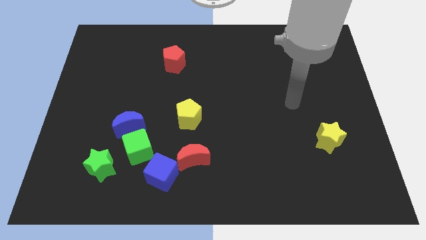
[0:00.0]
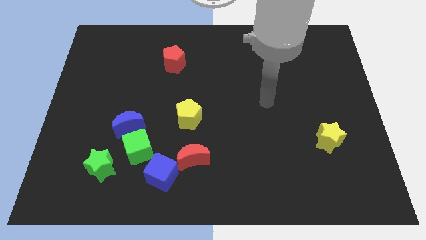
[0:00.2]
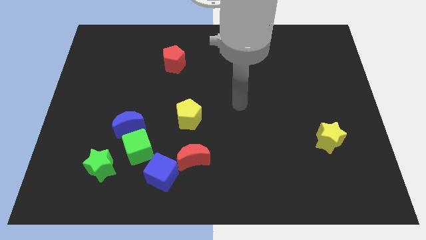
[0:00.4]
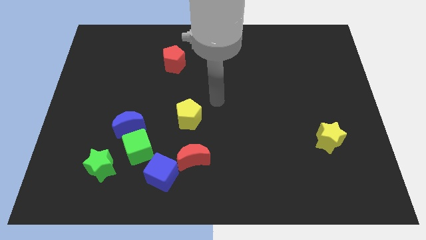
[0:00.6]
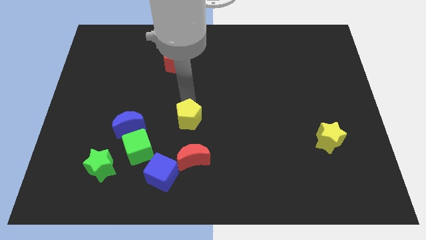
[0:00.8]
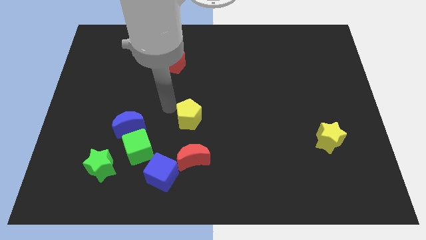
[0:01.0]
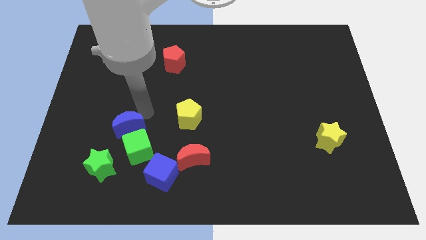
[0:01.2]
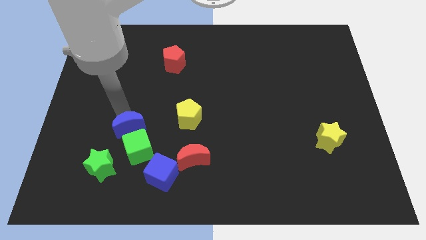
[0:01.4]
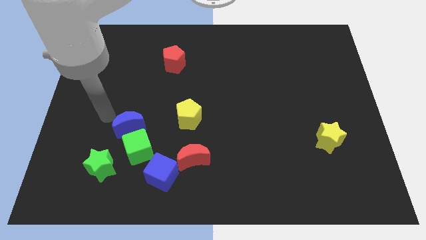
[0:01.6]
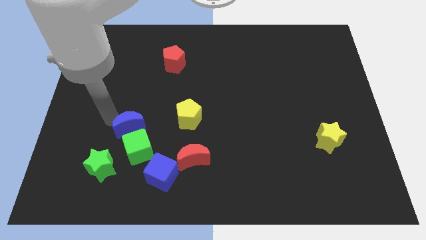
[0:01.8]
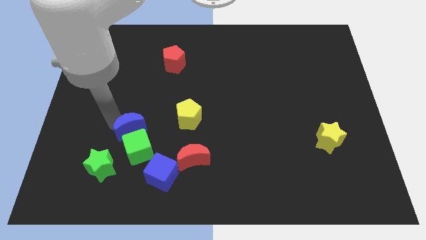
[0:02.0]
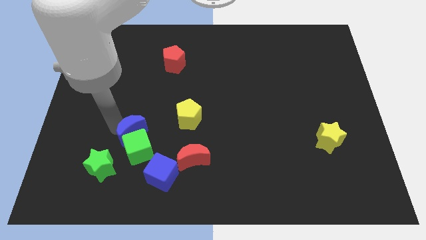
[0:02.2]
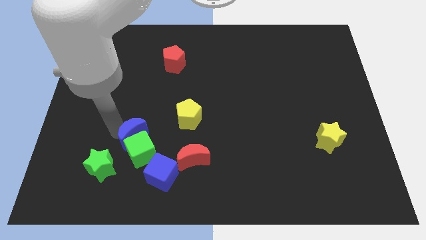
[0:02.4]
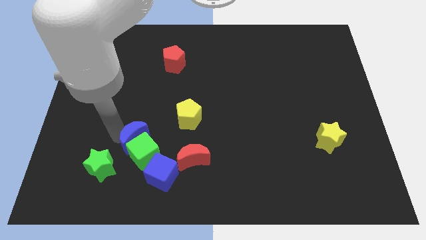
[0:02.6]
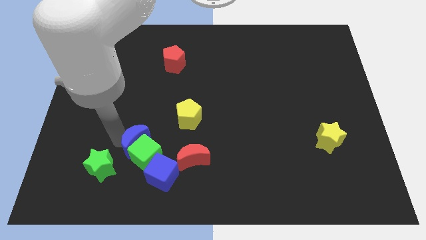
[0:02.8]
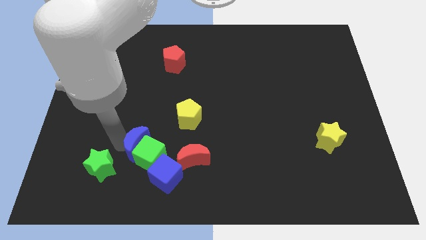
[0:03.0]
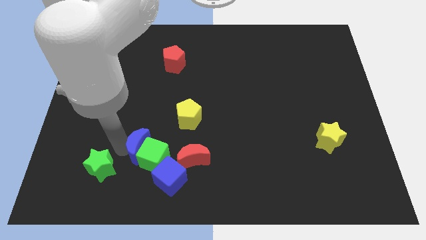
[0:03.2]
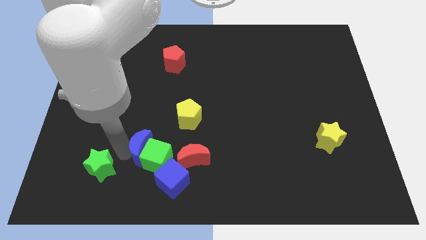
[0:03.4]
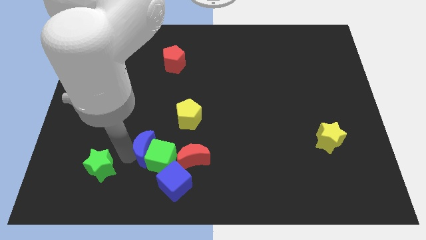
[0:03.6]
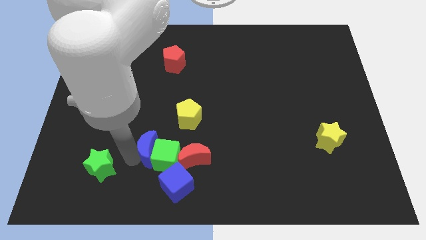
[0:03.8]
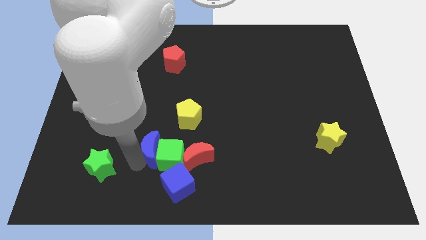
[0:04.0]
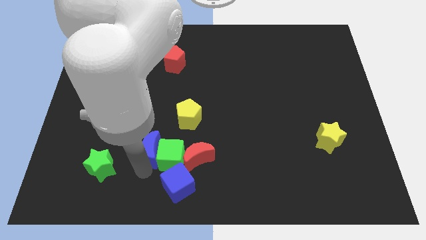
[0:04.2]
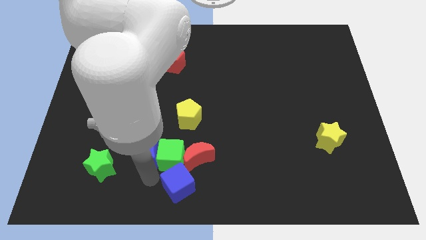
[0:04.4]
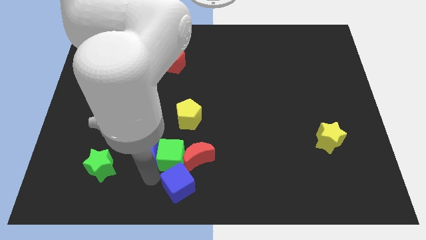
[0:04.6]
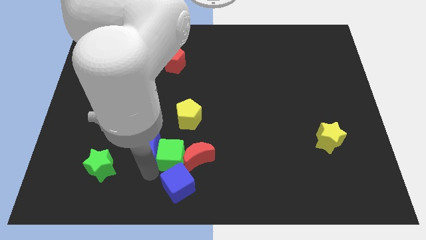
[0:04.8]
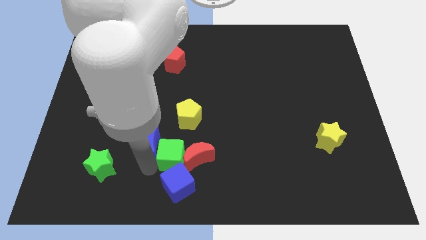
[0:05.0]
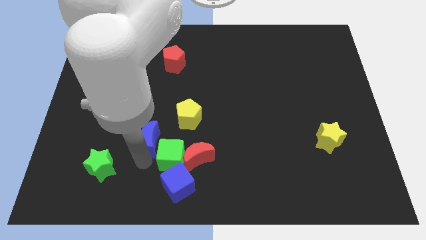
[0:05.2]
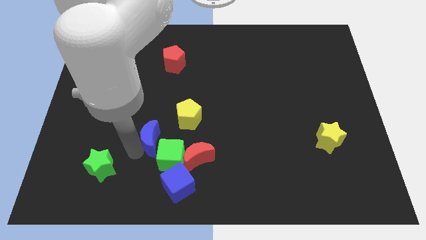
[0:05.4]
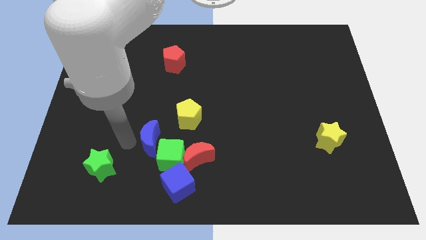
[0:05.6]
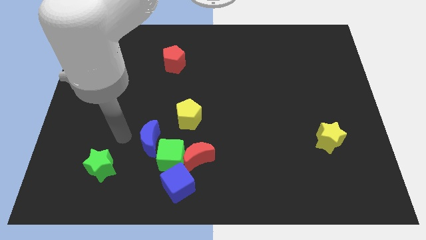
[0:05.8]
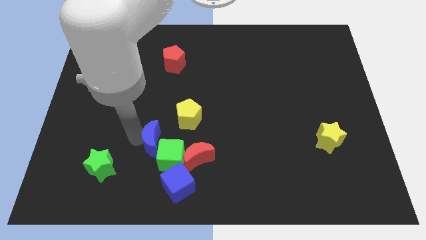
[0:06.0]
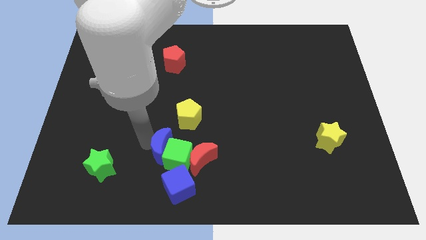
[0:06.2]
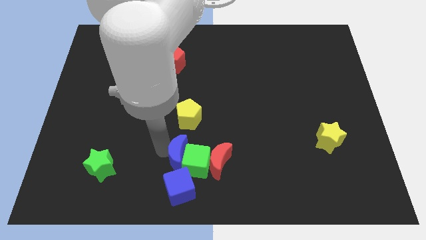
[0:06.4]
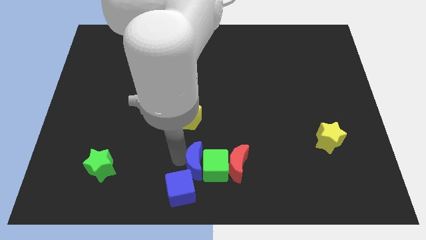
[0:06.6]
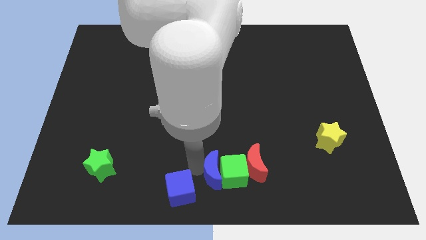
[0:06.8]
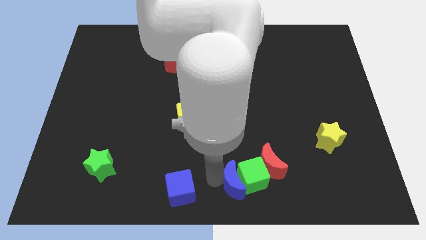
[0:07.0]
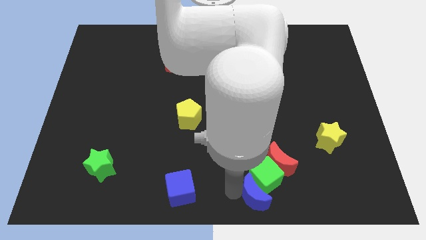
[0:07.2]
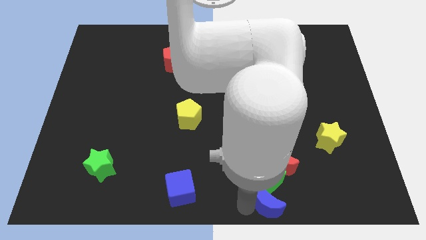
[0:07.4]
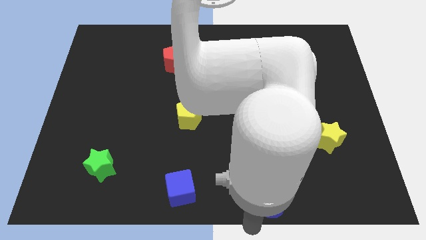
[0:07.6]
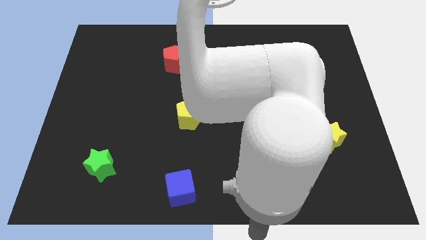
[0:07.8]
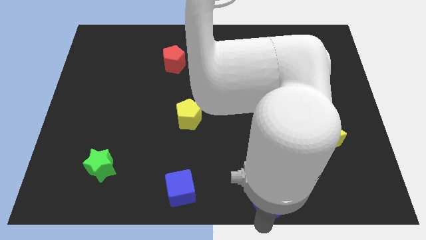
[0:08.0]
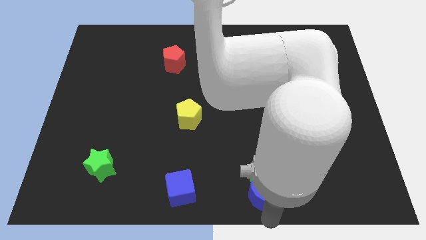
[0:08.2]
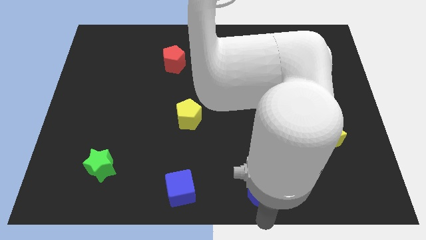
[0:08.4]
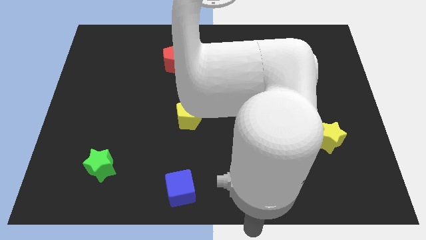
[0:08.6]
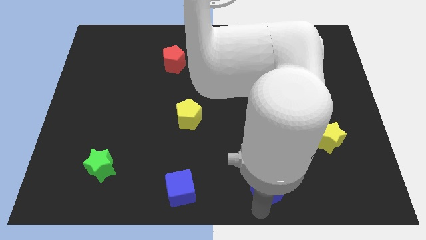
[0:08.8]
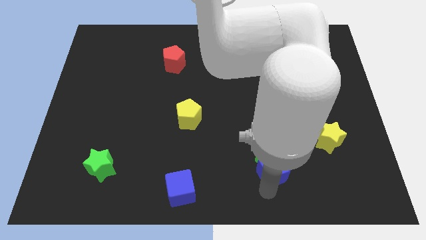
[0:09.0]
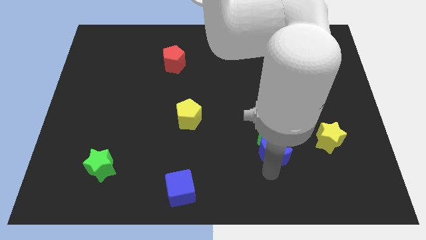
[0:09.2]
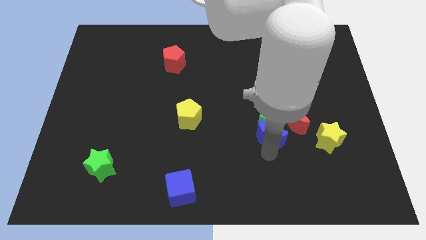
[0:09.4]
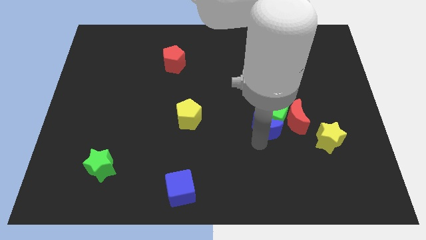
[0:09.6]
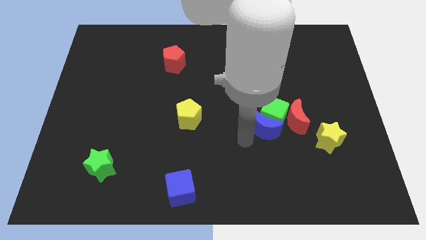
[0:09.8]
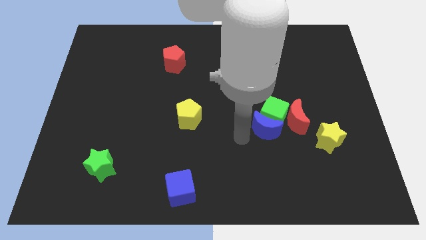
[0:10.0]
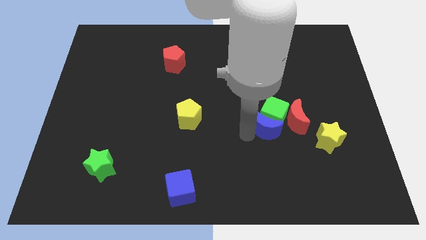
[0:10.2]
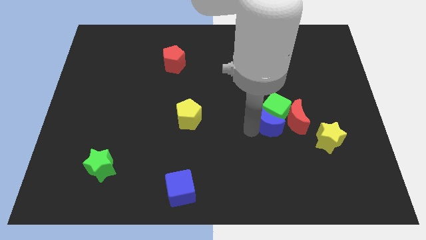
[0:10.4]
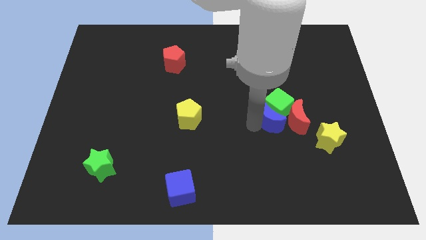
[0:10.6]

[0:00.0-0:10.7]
slide the blue moon towards the red moon

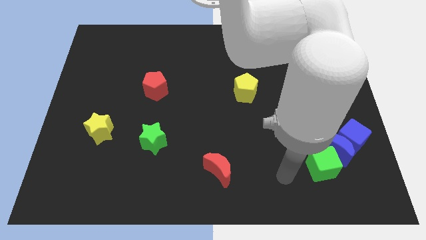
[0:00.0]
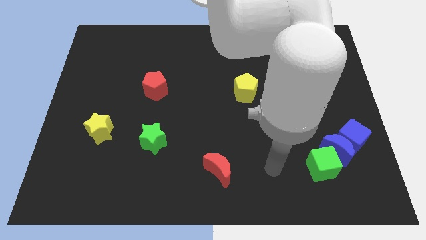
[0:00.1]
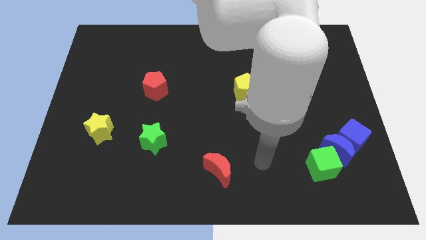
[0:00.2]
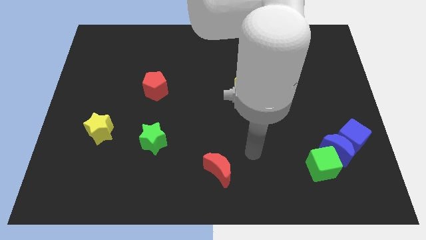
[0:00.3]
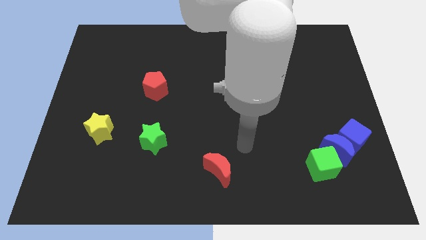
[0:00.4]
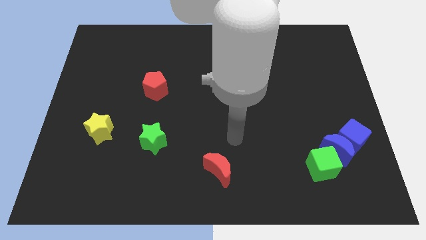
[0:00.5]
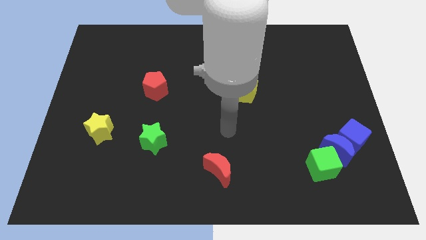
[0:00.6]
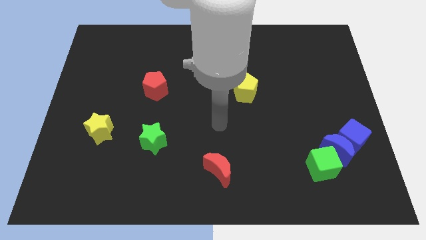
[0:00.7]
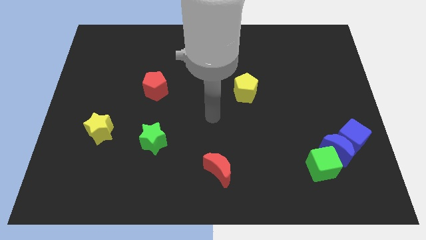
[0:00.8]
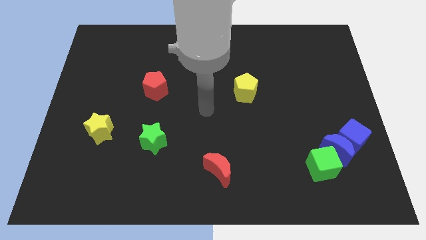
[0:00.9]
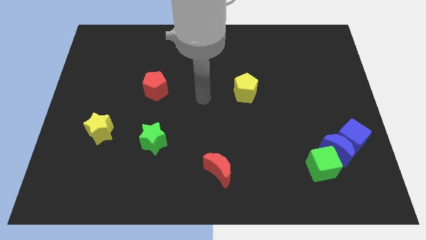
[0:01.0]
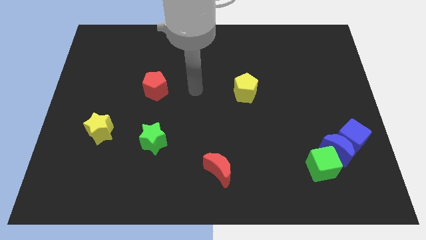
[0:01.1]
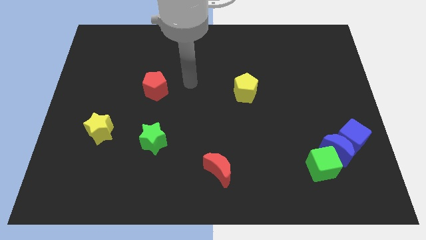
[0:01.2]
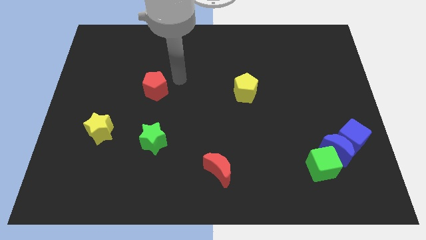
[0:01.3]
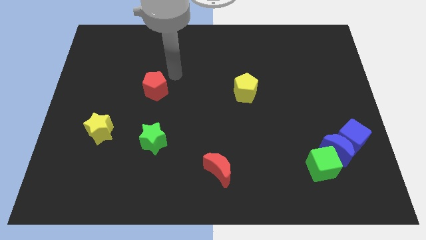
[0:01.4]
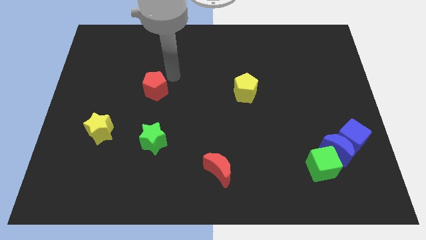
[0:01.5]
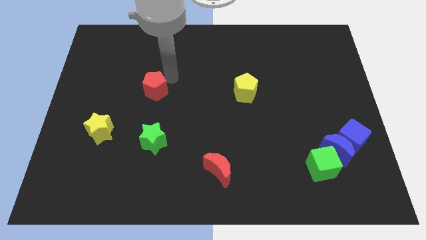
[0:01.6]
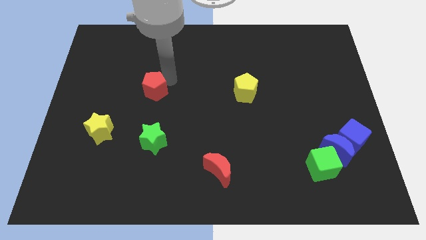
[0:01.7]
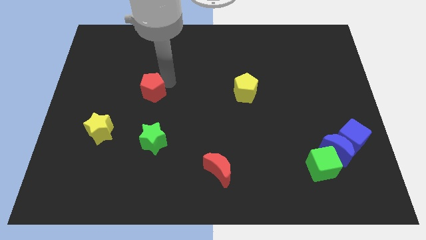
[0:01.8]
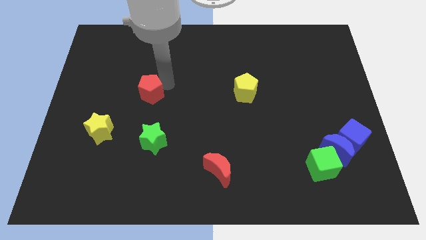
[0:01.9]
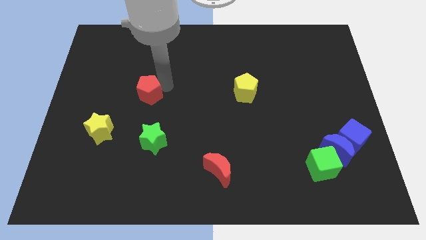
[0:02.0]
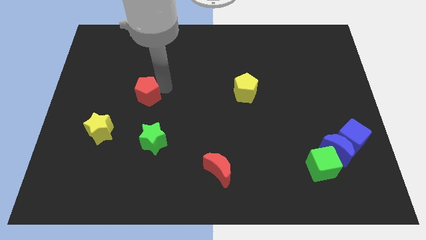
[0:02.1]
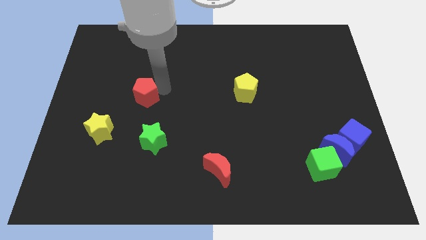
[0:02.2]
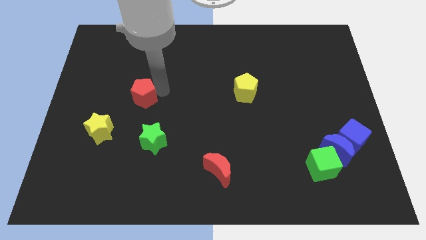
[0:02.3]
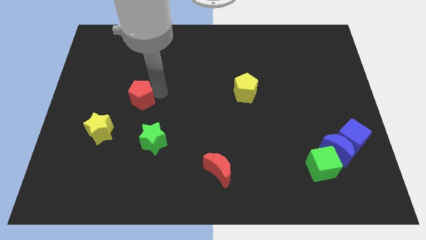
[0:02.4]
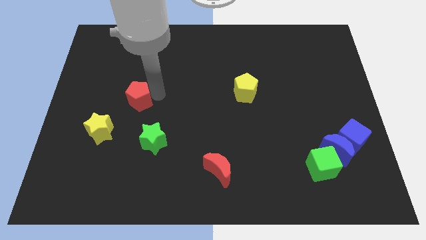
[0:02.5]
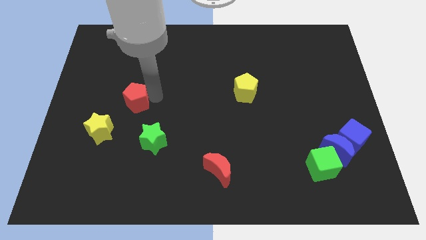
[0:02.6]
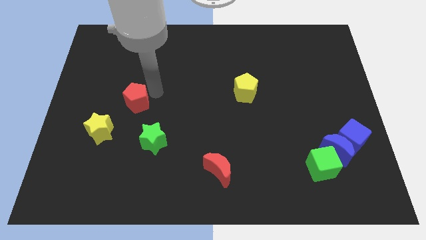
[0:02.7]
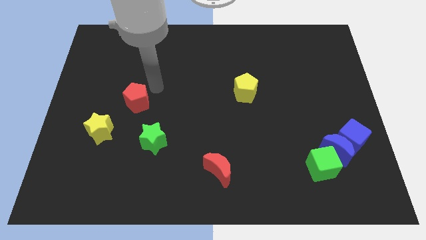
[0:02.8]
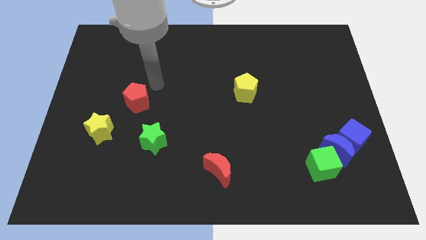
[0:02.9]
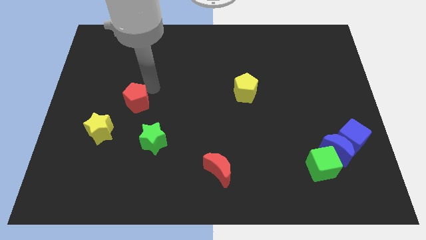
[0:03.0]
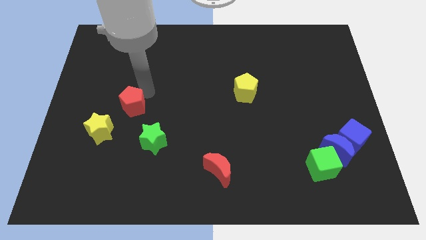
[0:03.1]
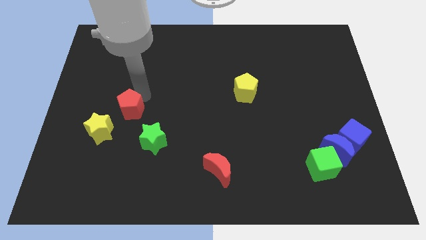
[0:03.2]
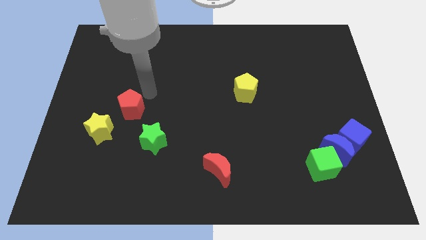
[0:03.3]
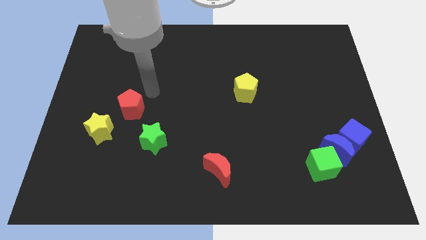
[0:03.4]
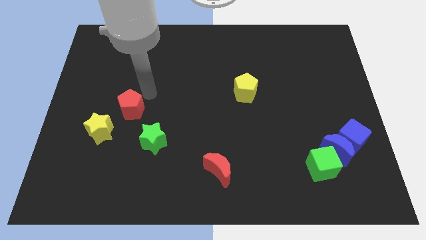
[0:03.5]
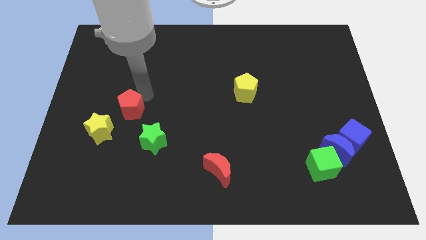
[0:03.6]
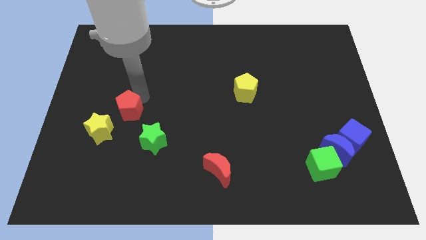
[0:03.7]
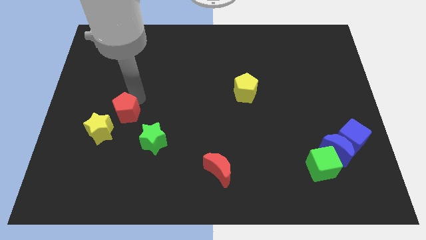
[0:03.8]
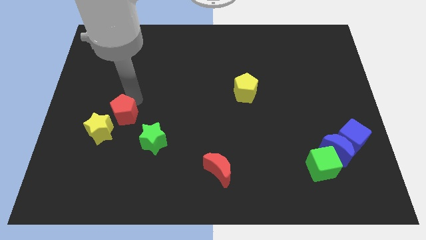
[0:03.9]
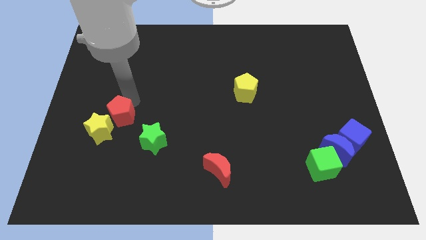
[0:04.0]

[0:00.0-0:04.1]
put the red pentagon to the yellow star
